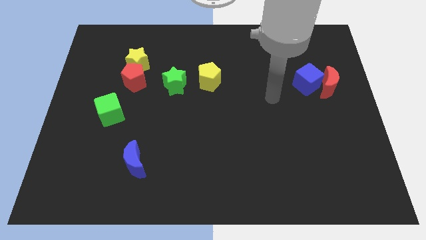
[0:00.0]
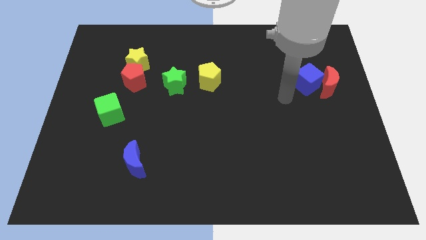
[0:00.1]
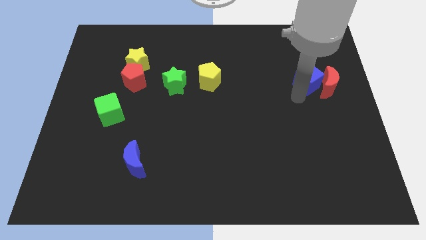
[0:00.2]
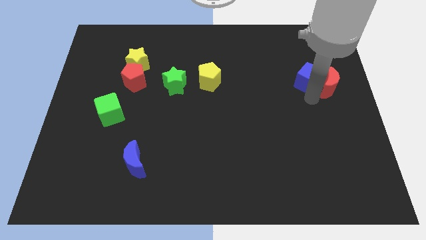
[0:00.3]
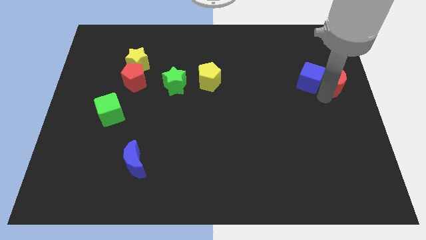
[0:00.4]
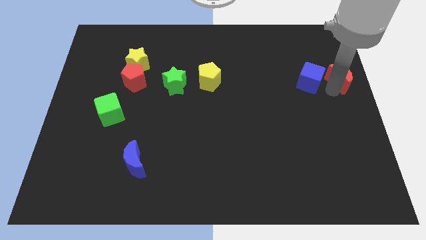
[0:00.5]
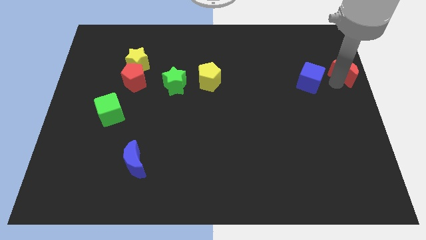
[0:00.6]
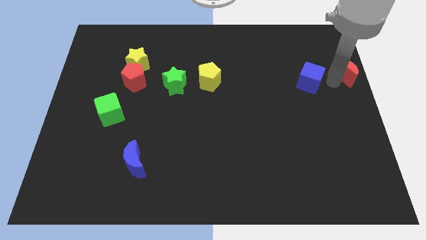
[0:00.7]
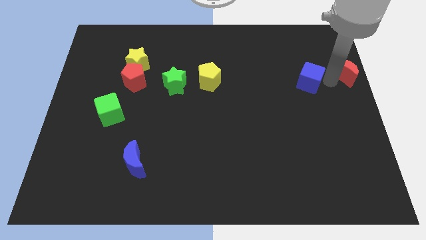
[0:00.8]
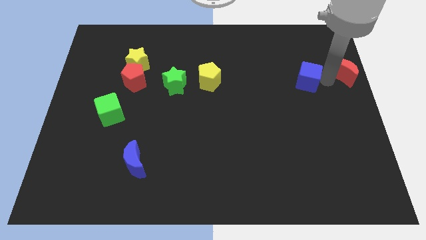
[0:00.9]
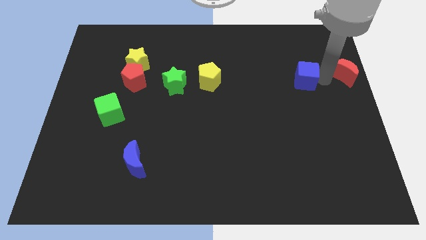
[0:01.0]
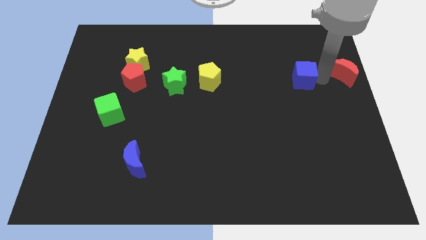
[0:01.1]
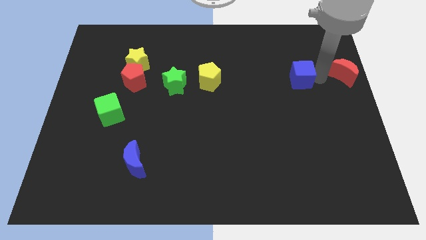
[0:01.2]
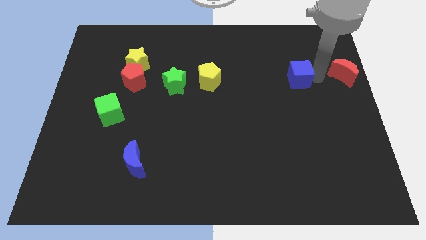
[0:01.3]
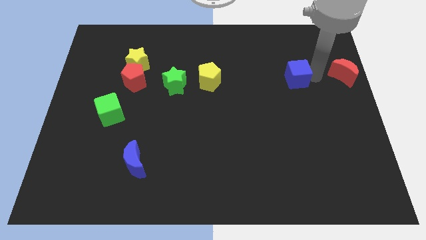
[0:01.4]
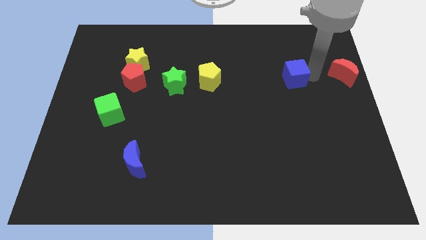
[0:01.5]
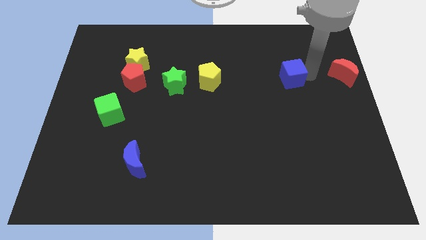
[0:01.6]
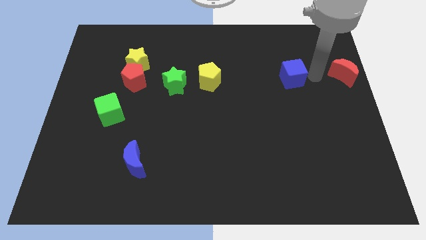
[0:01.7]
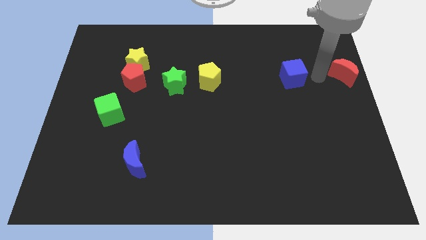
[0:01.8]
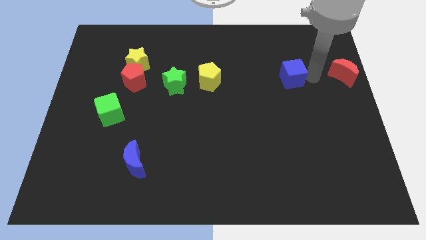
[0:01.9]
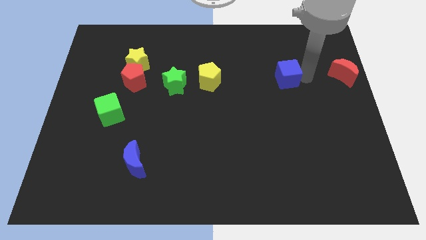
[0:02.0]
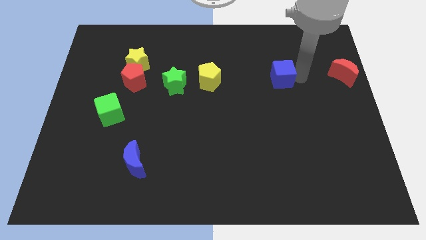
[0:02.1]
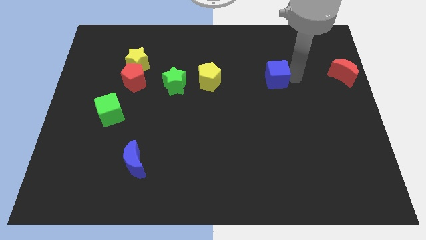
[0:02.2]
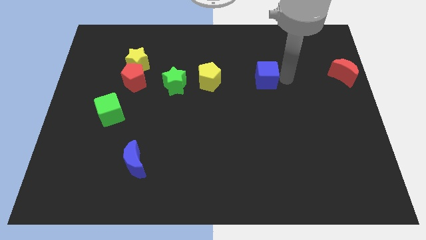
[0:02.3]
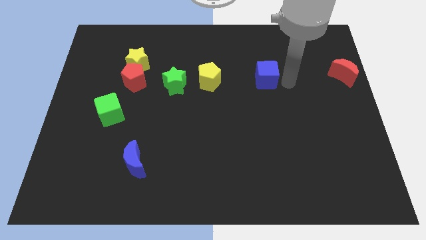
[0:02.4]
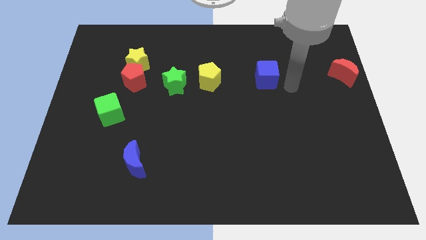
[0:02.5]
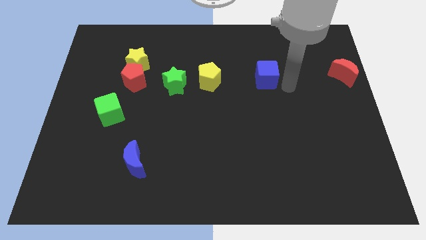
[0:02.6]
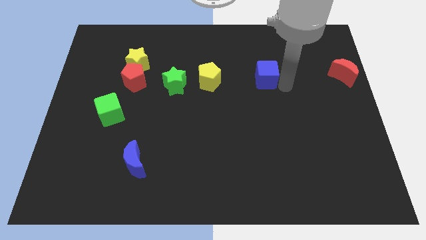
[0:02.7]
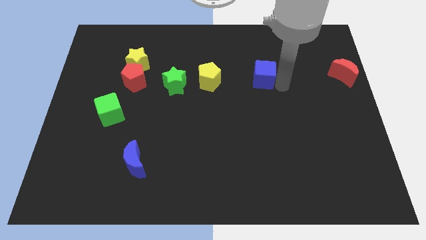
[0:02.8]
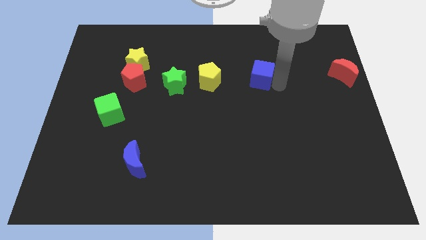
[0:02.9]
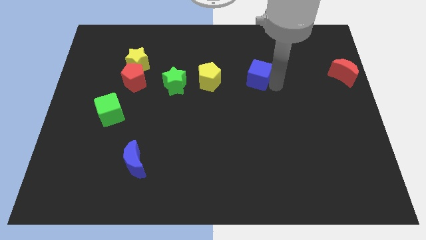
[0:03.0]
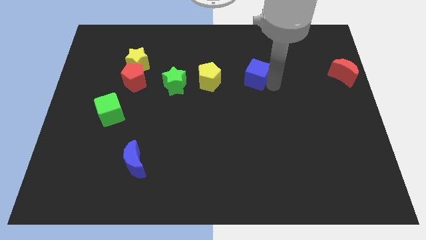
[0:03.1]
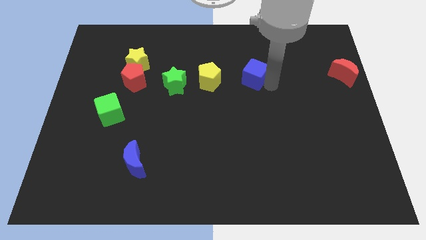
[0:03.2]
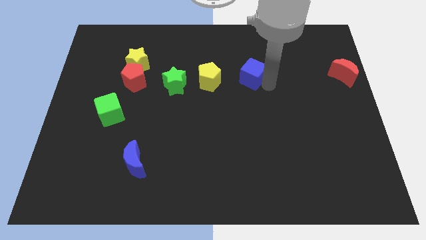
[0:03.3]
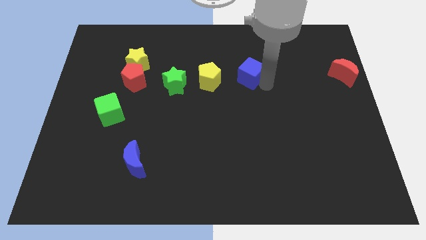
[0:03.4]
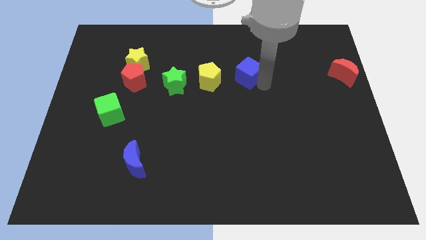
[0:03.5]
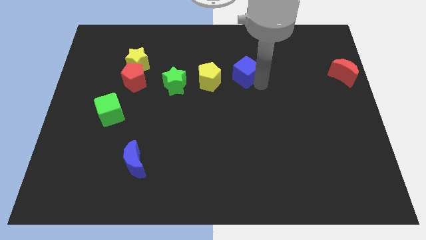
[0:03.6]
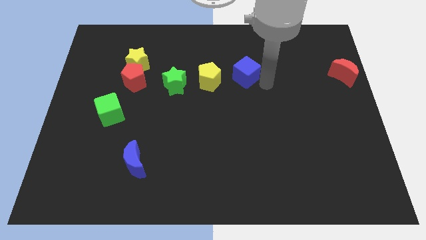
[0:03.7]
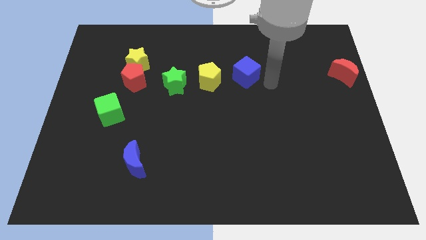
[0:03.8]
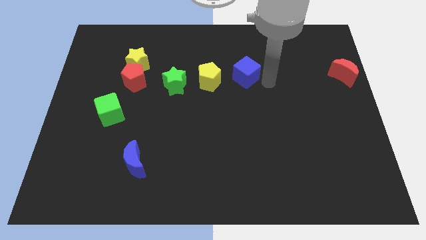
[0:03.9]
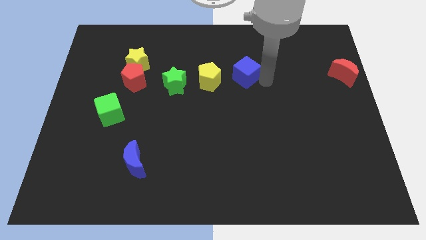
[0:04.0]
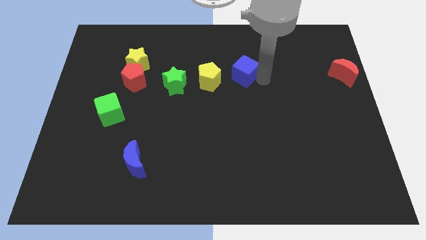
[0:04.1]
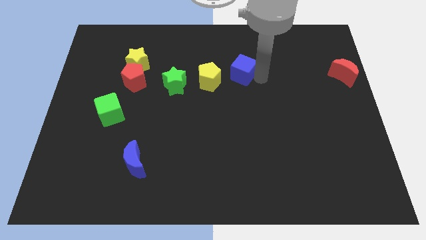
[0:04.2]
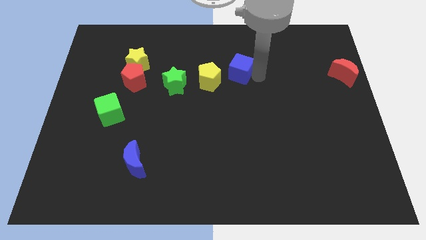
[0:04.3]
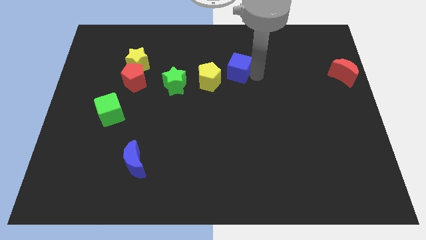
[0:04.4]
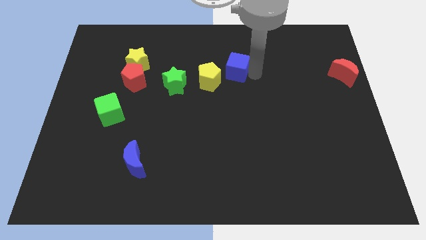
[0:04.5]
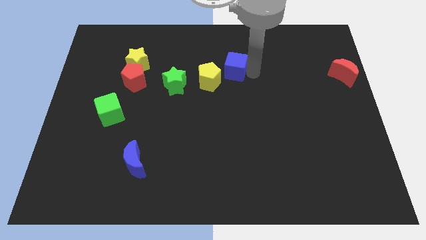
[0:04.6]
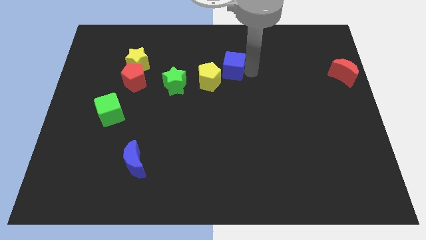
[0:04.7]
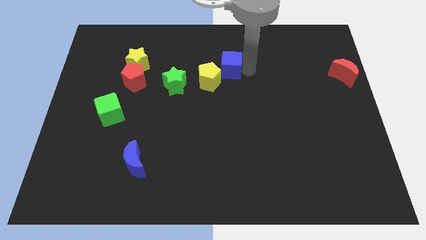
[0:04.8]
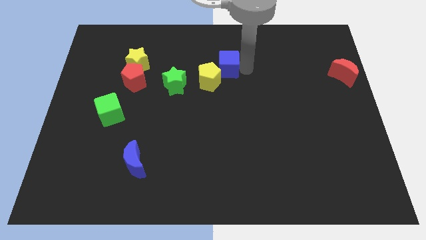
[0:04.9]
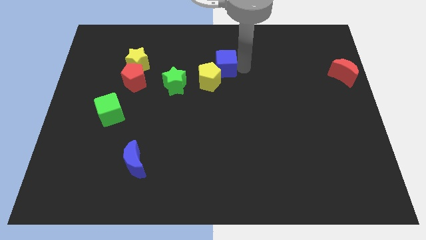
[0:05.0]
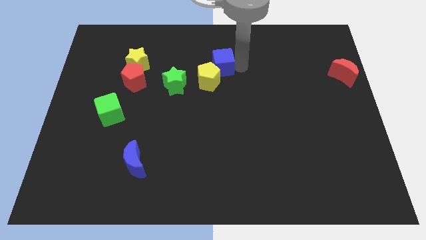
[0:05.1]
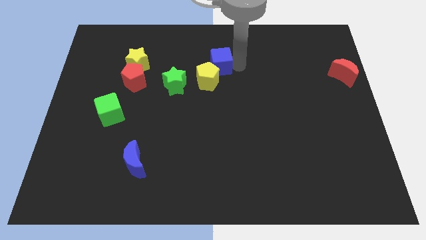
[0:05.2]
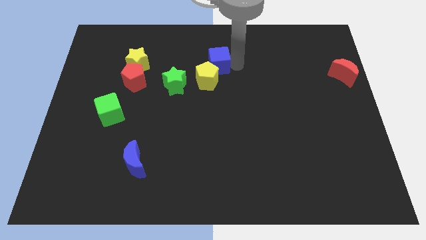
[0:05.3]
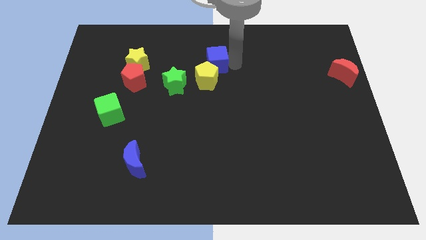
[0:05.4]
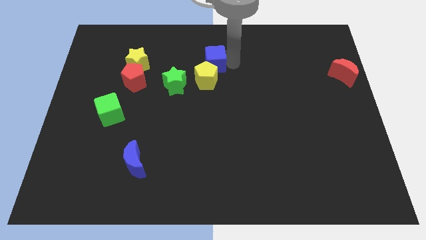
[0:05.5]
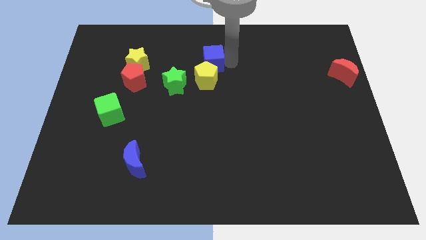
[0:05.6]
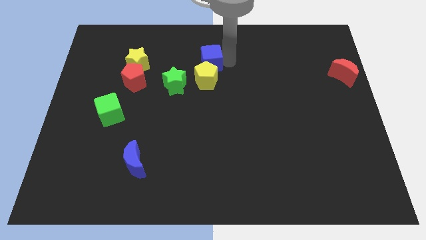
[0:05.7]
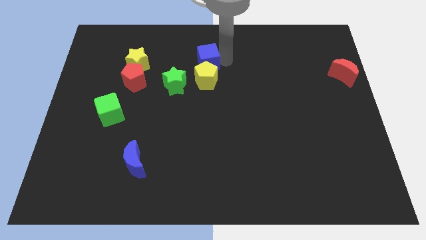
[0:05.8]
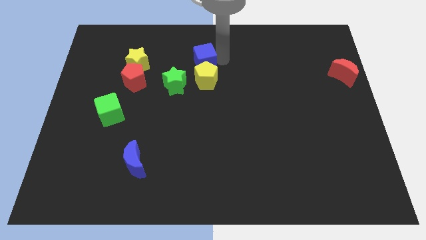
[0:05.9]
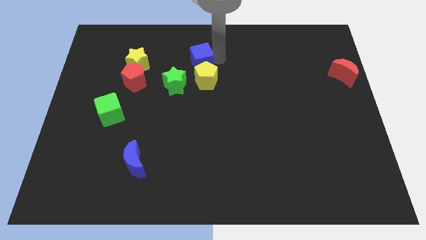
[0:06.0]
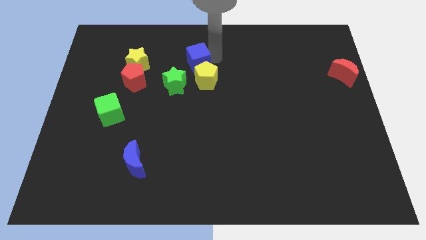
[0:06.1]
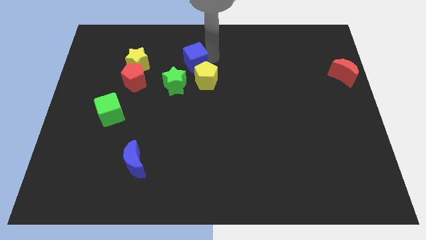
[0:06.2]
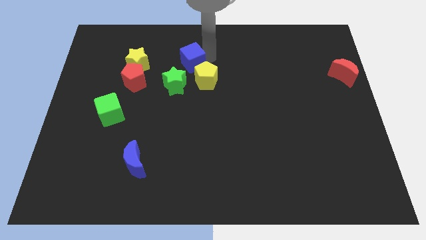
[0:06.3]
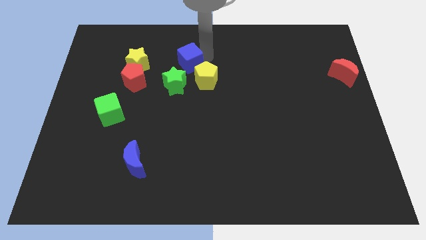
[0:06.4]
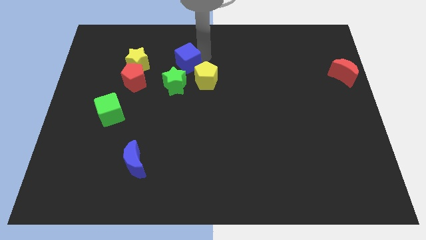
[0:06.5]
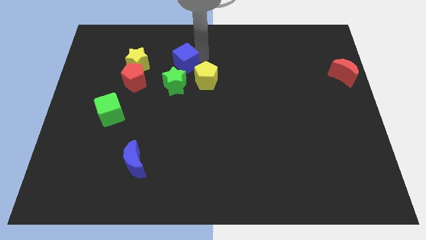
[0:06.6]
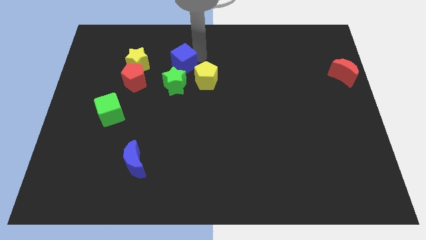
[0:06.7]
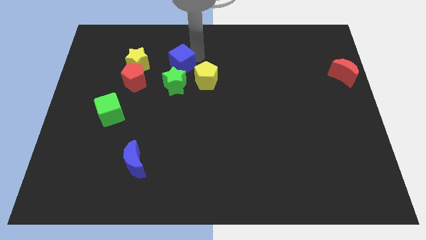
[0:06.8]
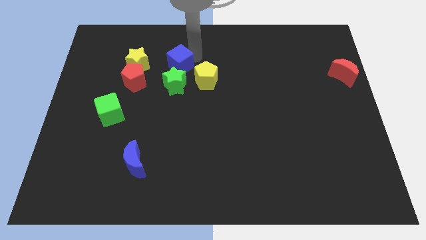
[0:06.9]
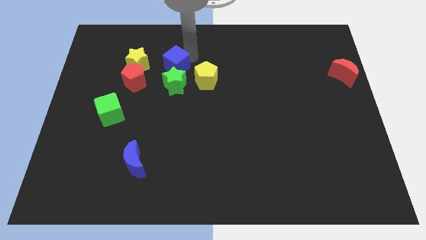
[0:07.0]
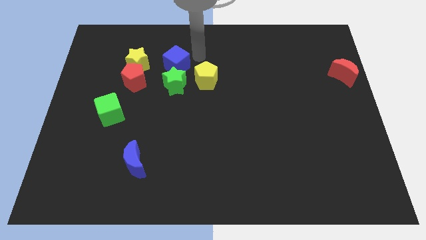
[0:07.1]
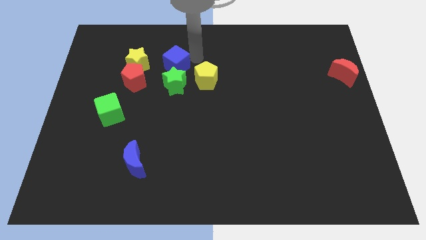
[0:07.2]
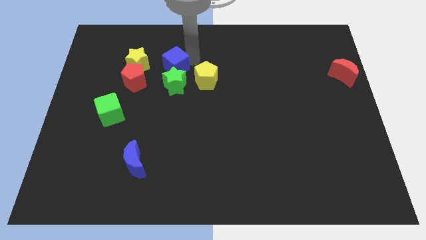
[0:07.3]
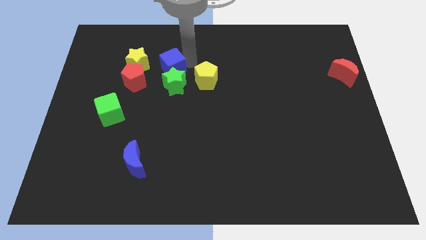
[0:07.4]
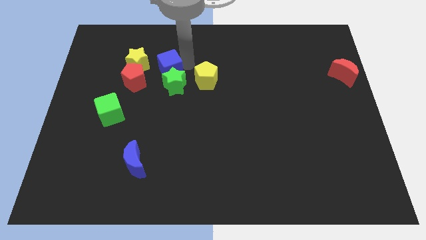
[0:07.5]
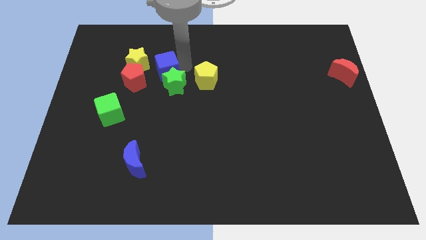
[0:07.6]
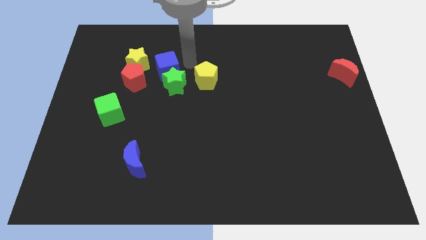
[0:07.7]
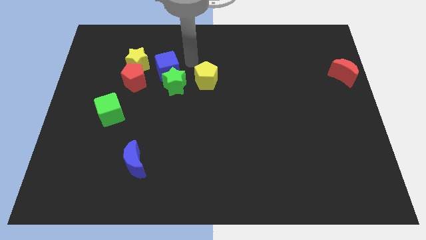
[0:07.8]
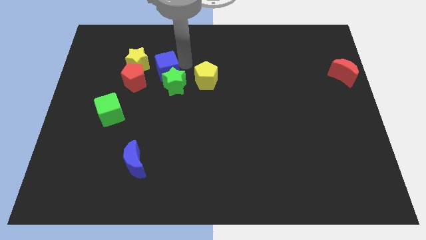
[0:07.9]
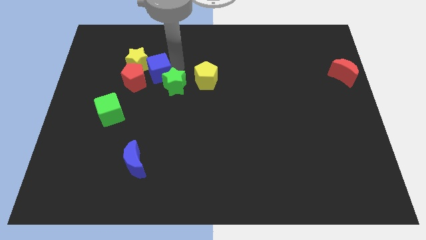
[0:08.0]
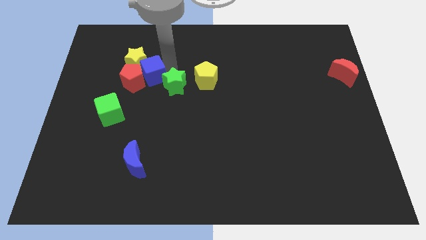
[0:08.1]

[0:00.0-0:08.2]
move the blue cube towards the red pentagon
